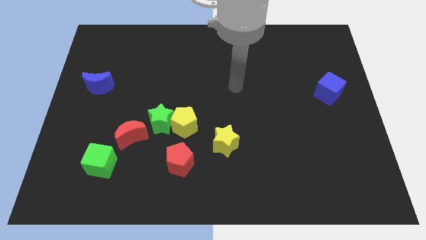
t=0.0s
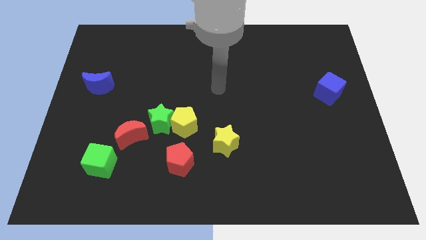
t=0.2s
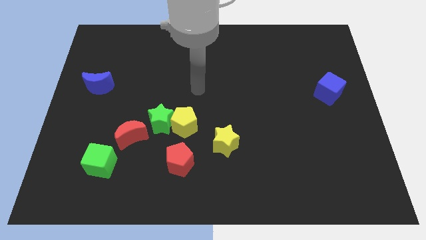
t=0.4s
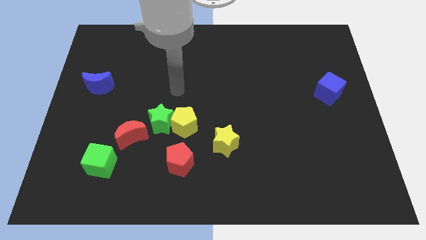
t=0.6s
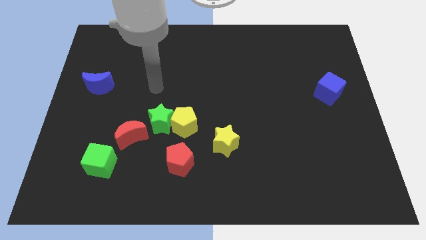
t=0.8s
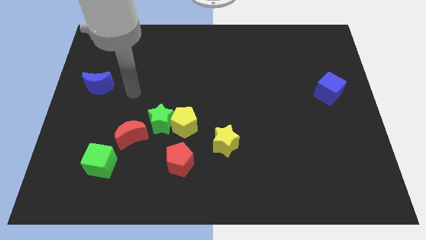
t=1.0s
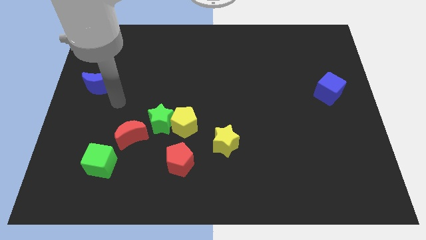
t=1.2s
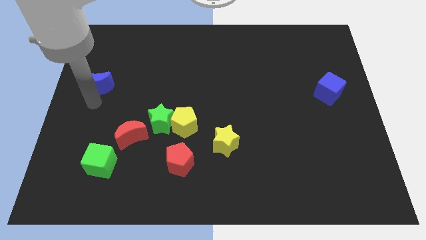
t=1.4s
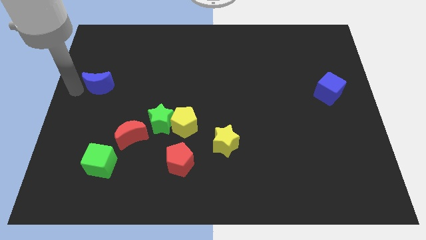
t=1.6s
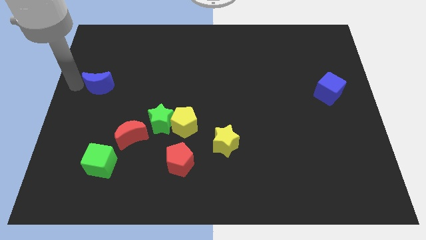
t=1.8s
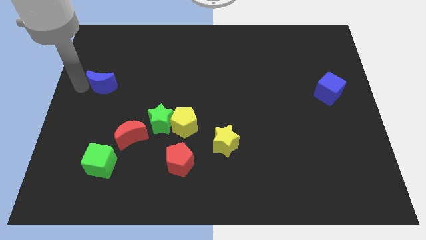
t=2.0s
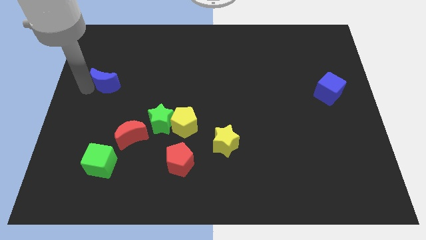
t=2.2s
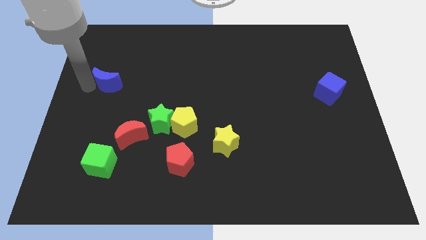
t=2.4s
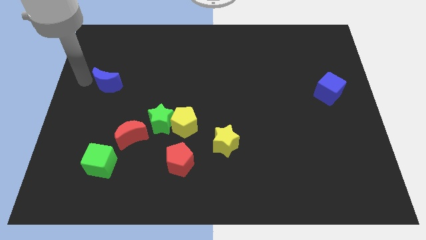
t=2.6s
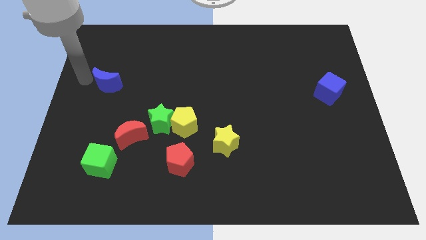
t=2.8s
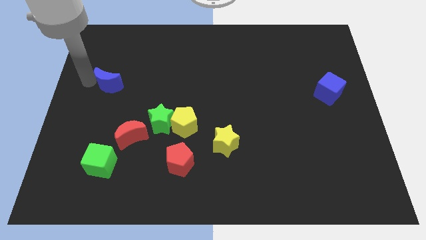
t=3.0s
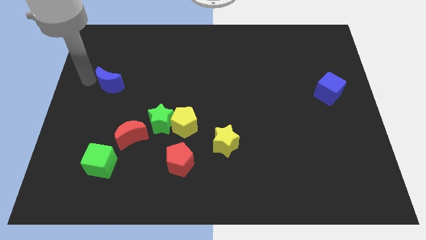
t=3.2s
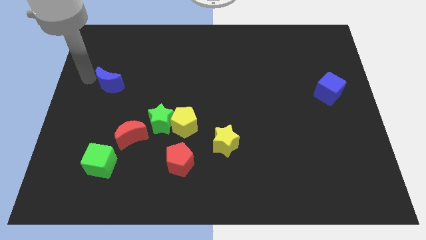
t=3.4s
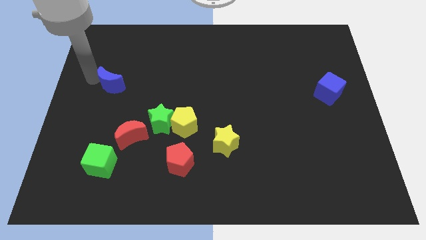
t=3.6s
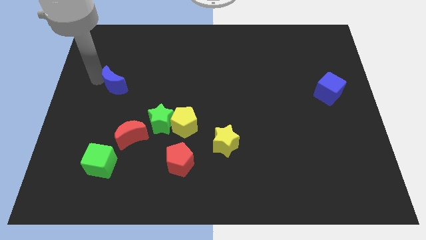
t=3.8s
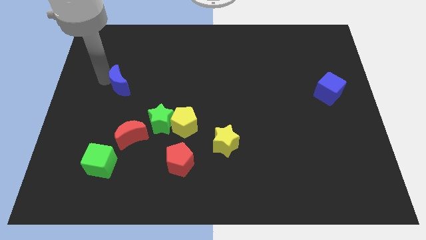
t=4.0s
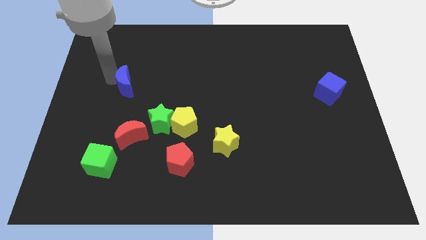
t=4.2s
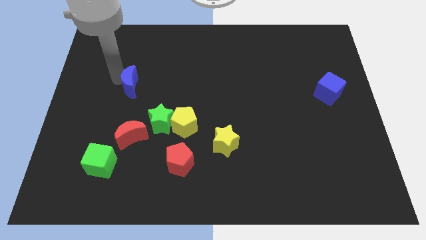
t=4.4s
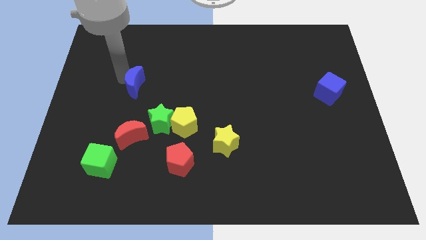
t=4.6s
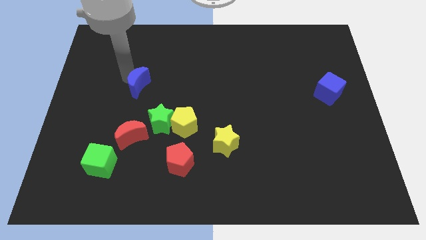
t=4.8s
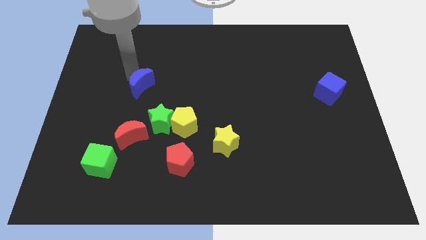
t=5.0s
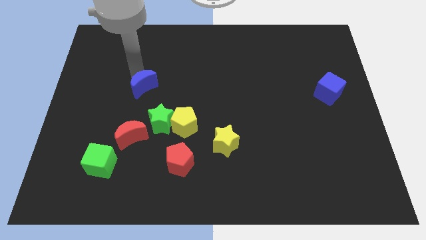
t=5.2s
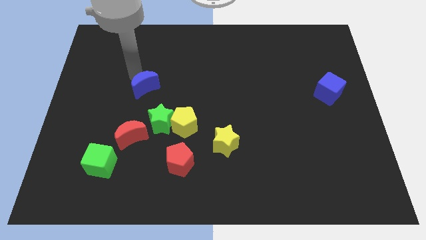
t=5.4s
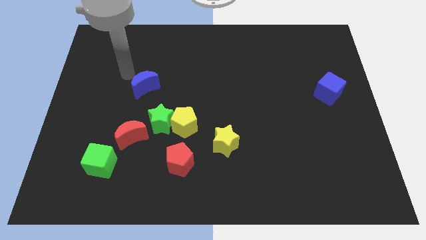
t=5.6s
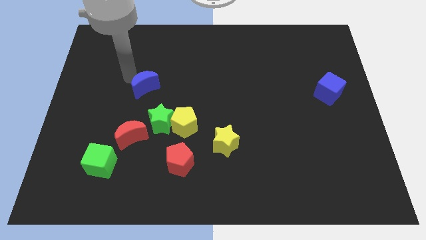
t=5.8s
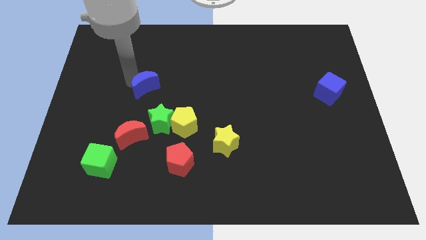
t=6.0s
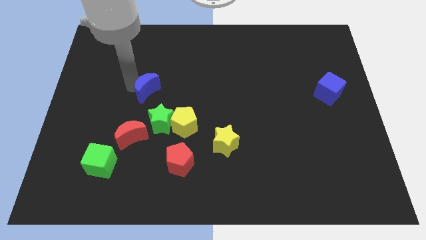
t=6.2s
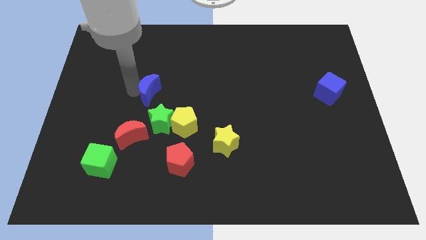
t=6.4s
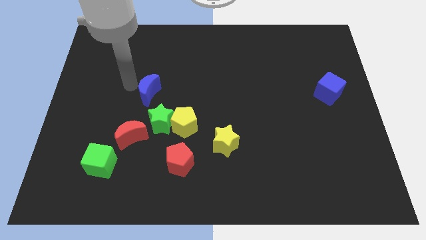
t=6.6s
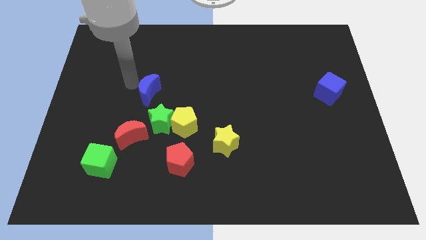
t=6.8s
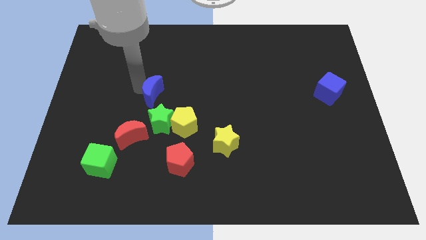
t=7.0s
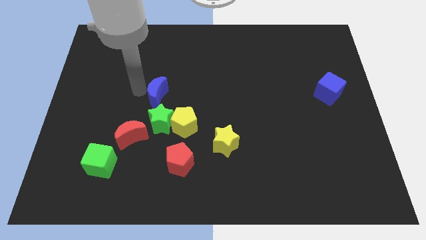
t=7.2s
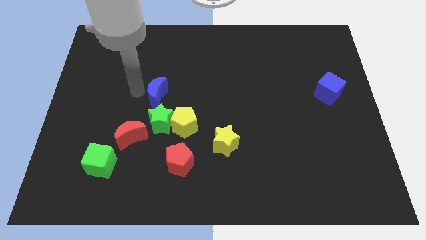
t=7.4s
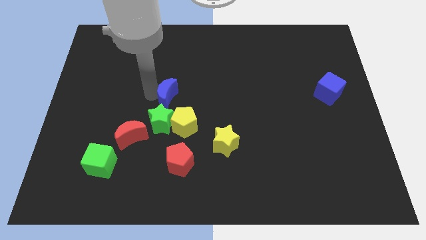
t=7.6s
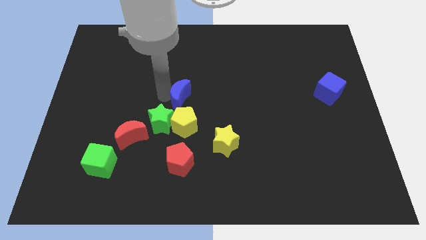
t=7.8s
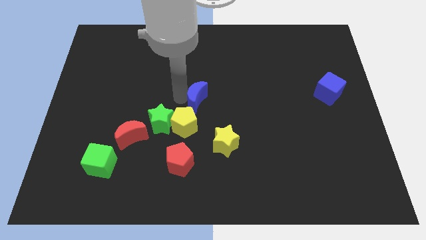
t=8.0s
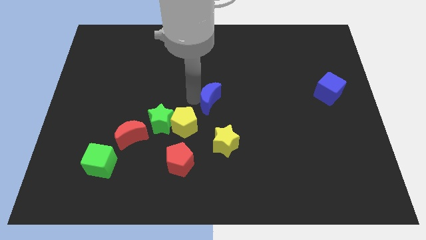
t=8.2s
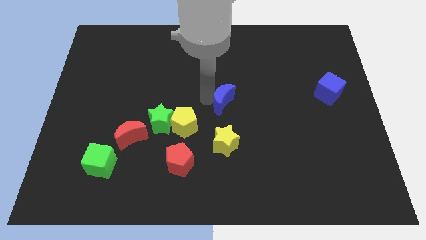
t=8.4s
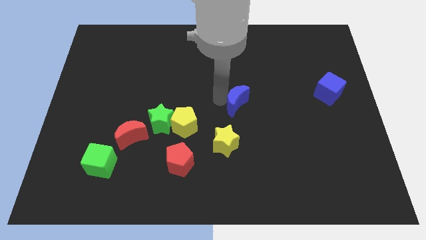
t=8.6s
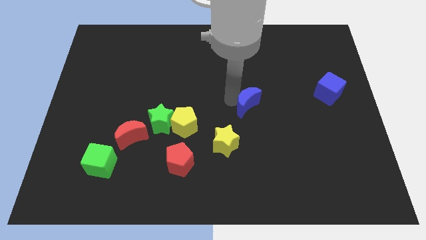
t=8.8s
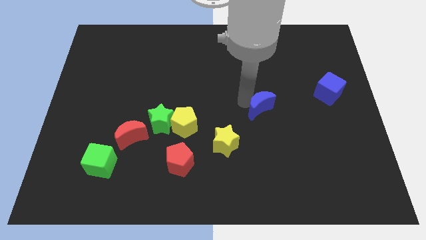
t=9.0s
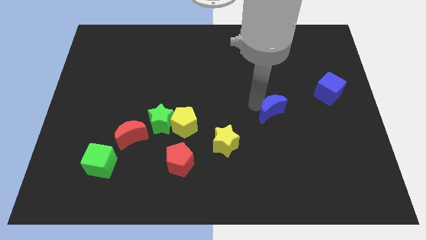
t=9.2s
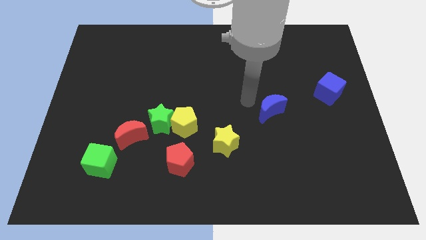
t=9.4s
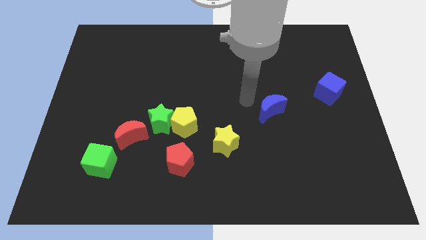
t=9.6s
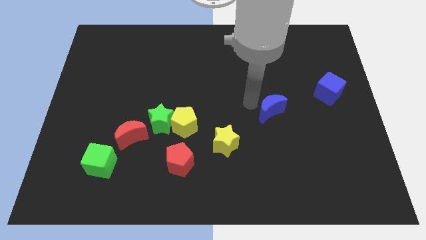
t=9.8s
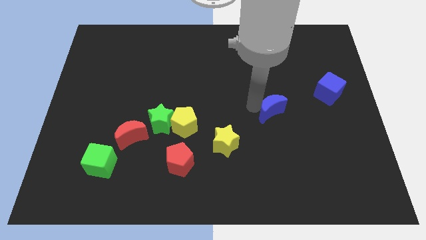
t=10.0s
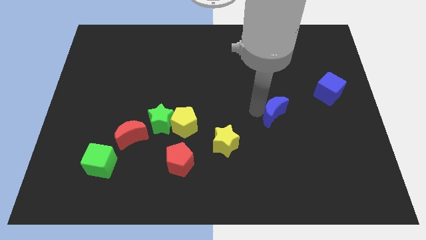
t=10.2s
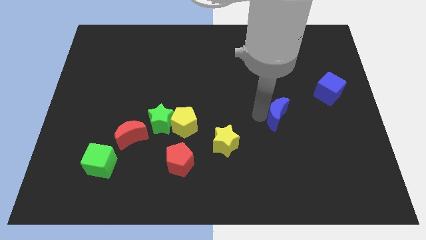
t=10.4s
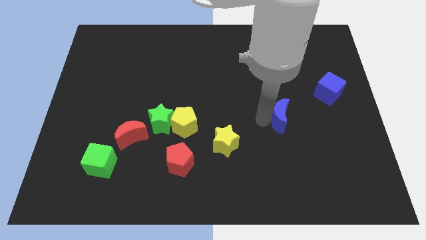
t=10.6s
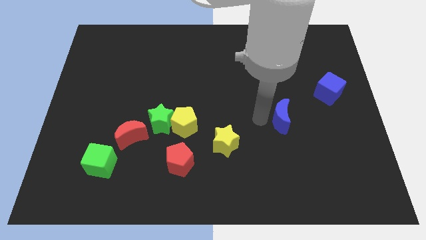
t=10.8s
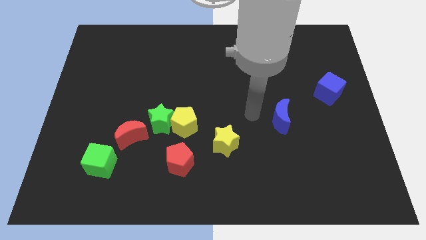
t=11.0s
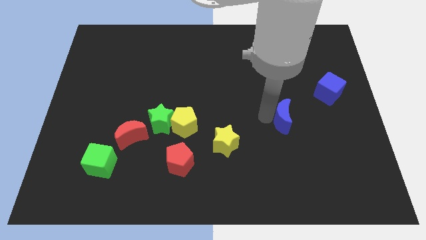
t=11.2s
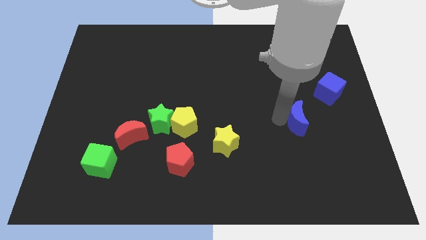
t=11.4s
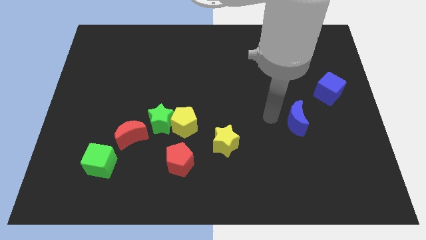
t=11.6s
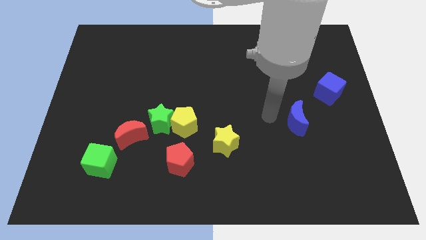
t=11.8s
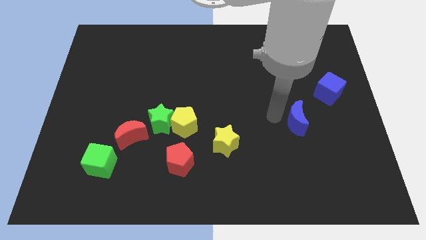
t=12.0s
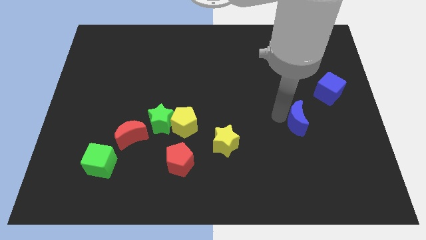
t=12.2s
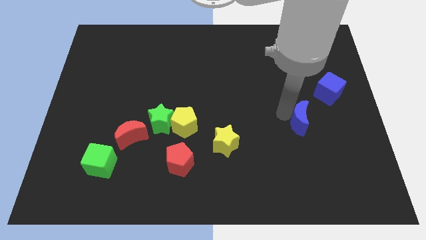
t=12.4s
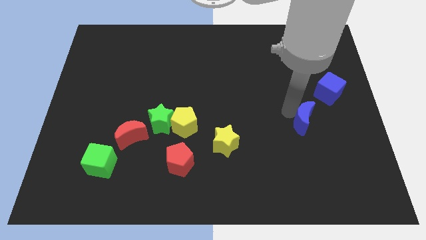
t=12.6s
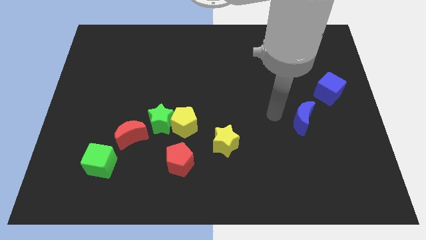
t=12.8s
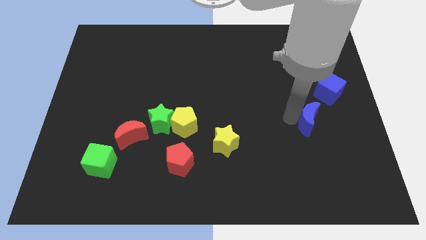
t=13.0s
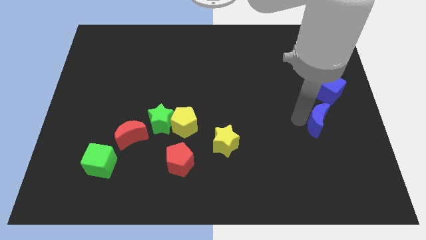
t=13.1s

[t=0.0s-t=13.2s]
push the blue moon to the bottom side of the blue cube

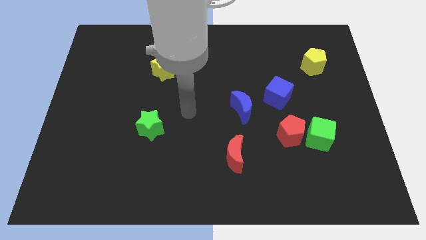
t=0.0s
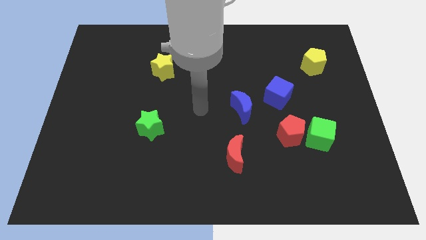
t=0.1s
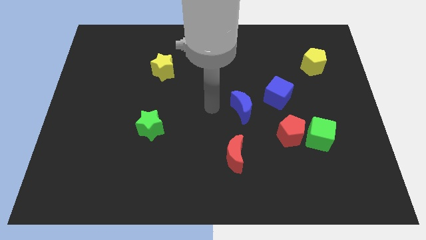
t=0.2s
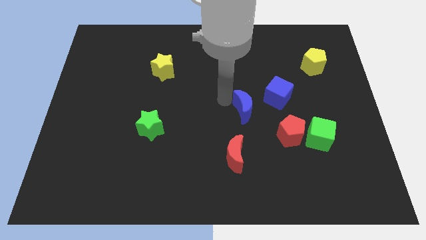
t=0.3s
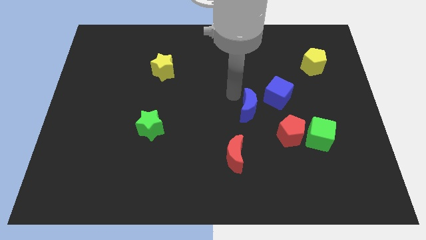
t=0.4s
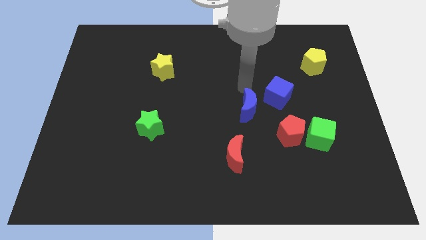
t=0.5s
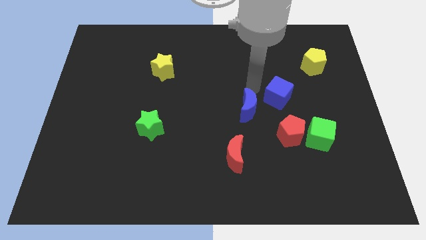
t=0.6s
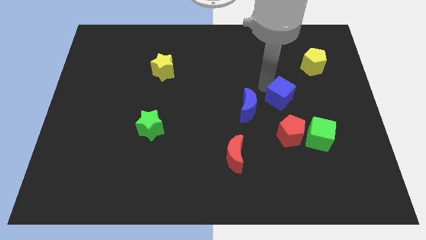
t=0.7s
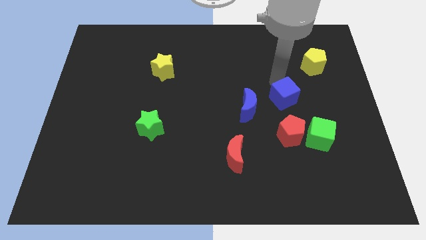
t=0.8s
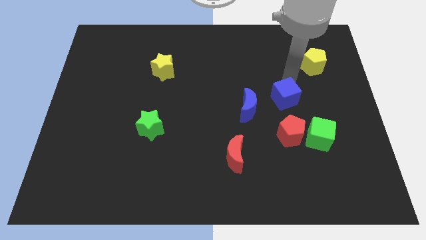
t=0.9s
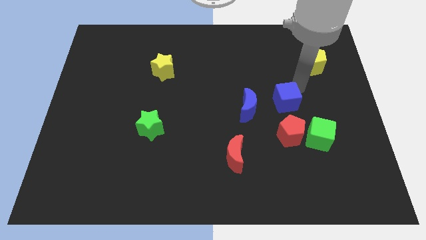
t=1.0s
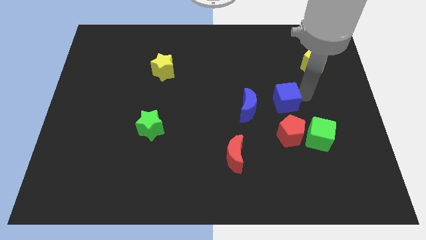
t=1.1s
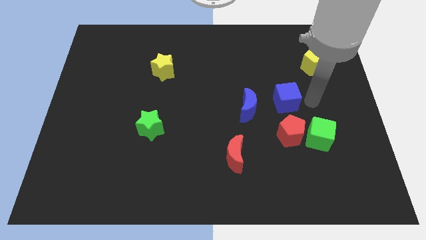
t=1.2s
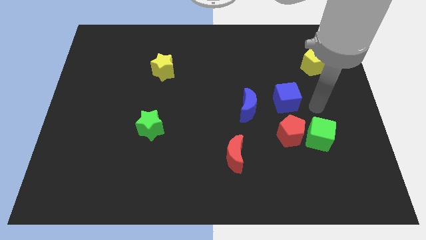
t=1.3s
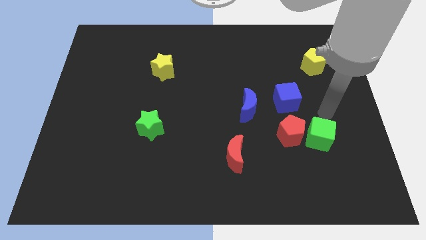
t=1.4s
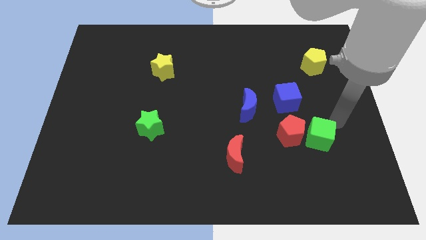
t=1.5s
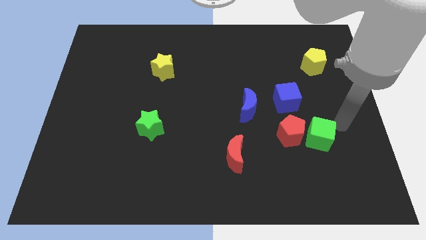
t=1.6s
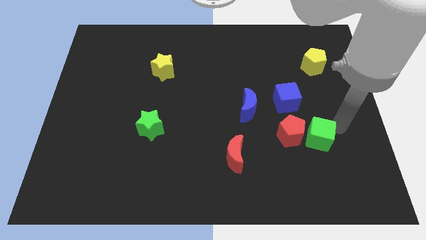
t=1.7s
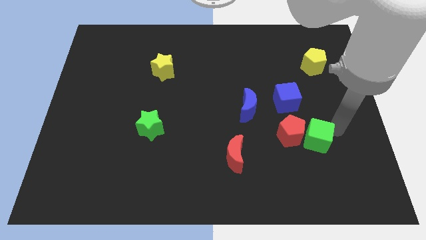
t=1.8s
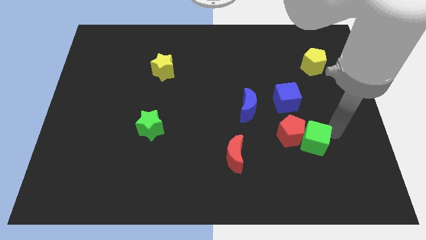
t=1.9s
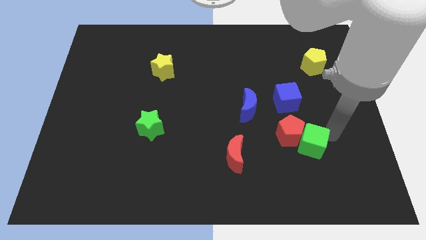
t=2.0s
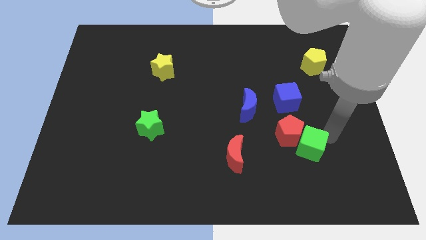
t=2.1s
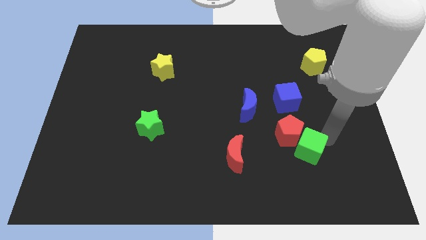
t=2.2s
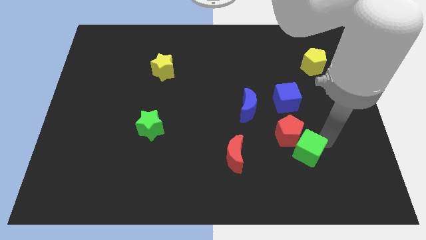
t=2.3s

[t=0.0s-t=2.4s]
move the green cube just right of the red moon
